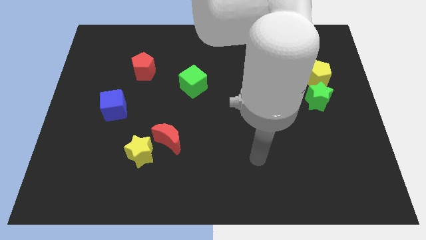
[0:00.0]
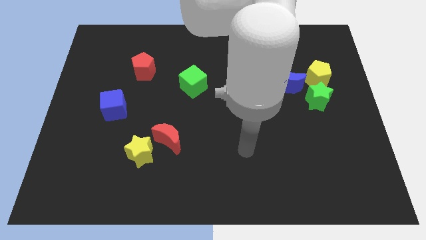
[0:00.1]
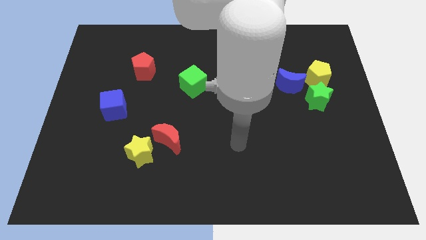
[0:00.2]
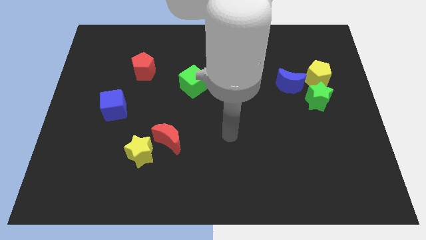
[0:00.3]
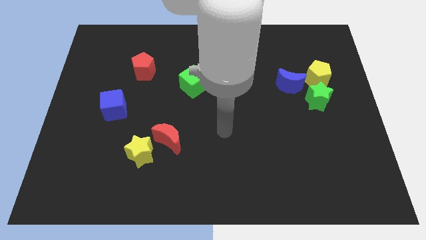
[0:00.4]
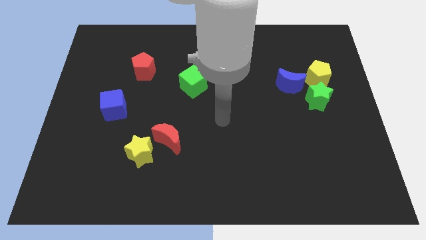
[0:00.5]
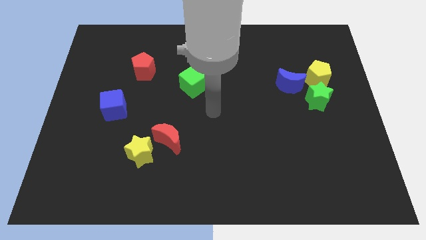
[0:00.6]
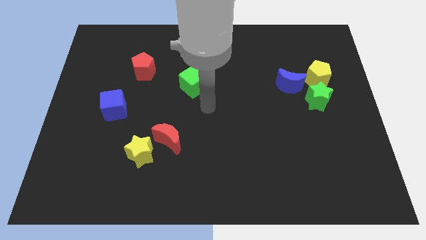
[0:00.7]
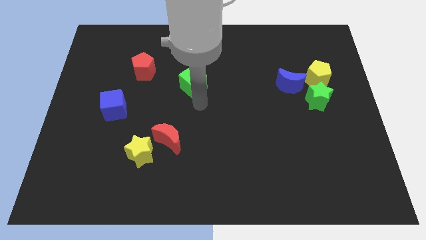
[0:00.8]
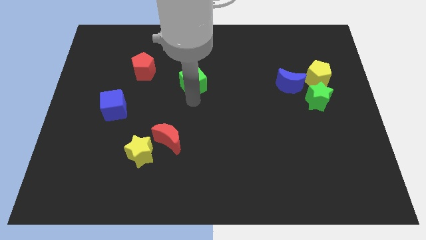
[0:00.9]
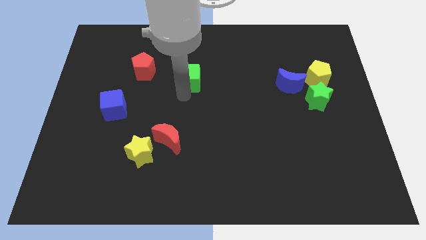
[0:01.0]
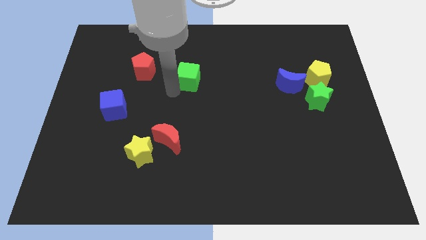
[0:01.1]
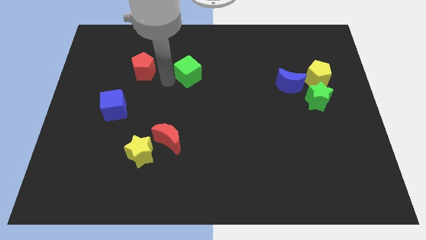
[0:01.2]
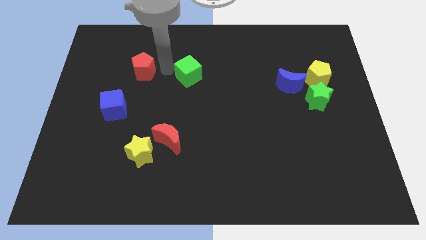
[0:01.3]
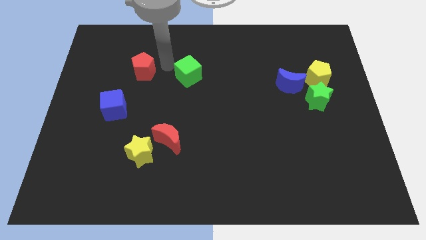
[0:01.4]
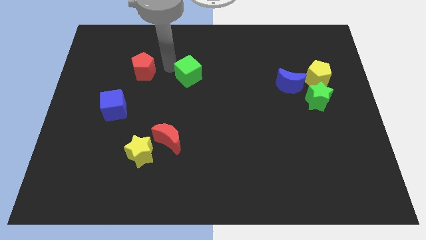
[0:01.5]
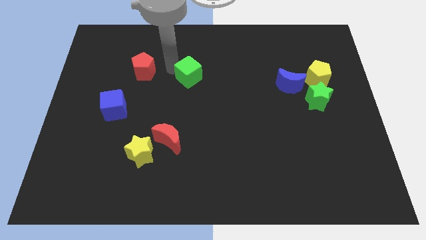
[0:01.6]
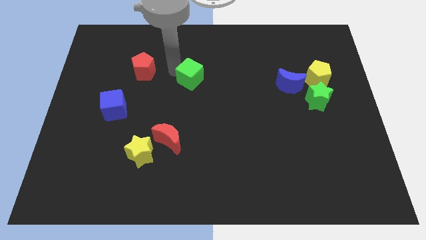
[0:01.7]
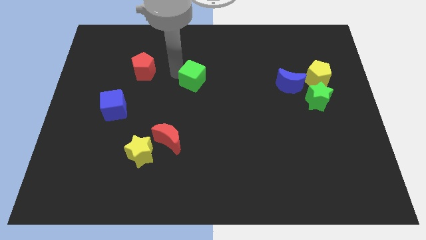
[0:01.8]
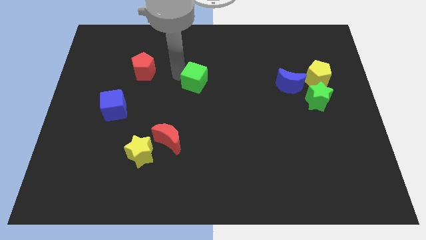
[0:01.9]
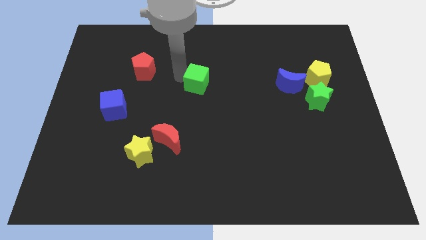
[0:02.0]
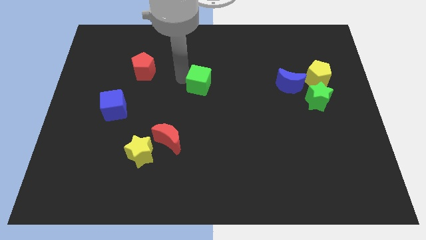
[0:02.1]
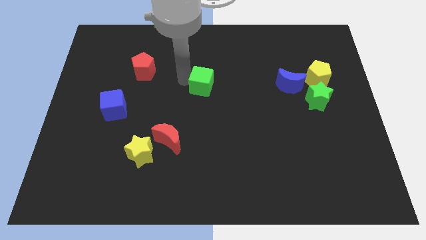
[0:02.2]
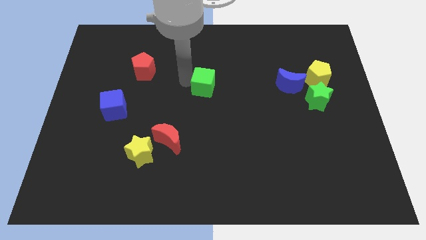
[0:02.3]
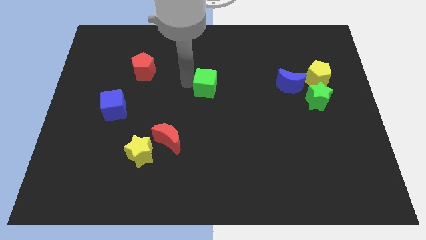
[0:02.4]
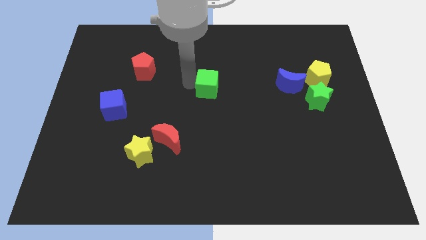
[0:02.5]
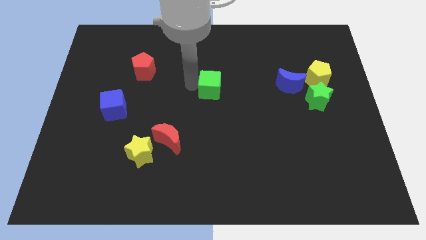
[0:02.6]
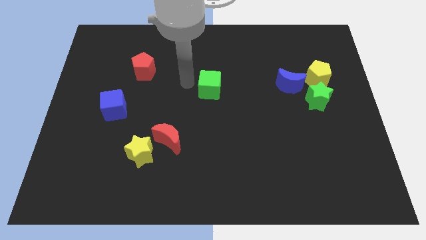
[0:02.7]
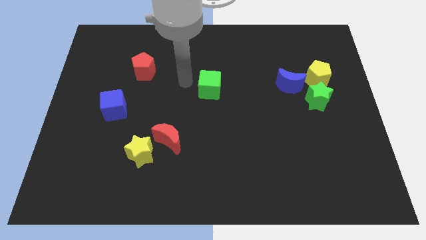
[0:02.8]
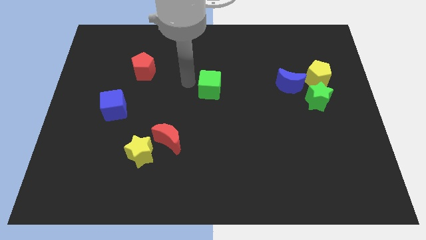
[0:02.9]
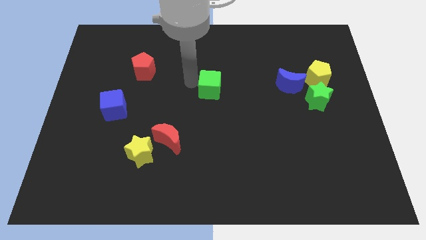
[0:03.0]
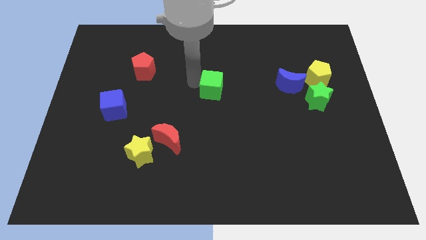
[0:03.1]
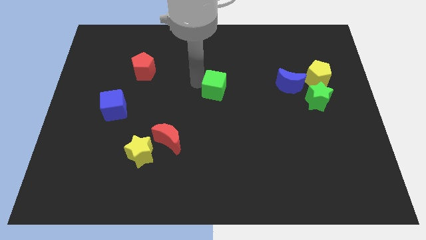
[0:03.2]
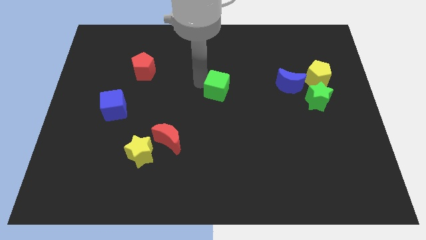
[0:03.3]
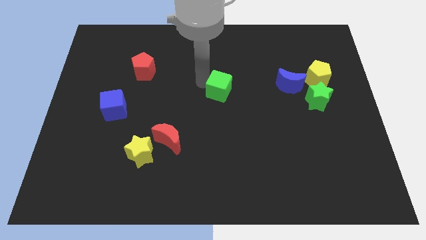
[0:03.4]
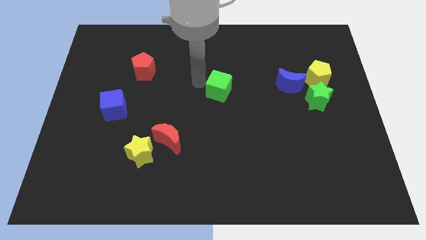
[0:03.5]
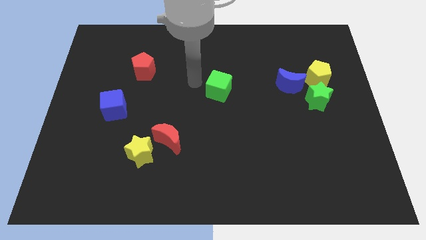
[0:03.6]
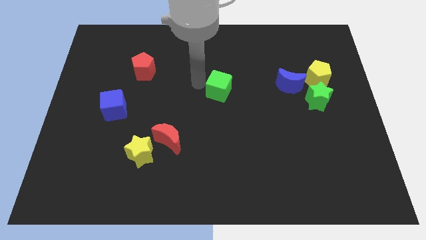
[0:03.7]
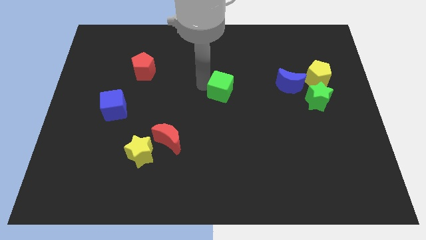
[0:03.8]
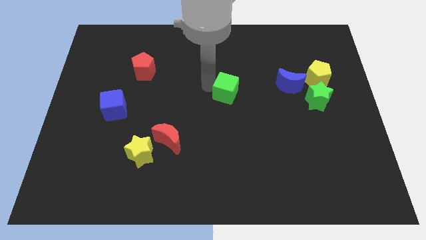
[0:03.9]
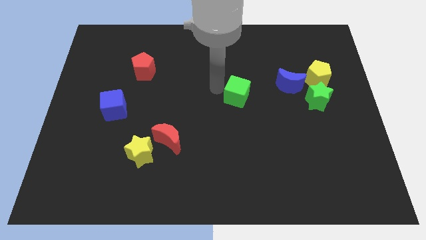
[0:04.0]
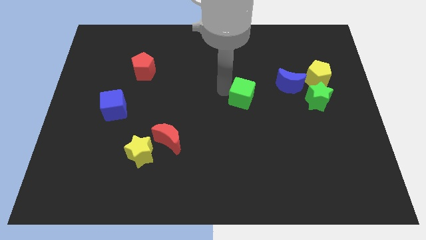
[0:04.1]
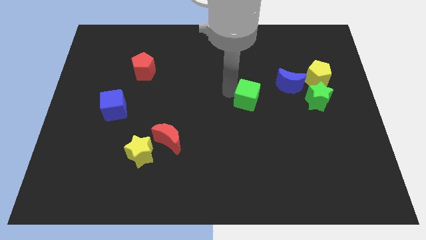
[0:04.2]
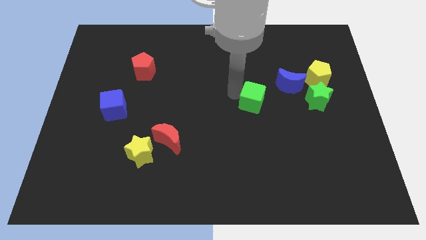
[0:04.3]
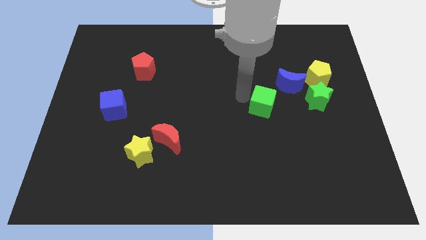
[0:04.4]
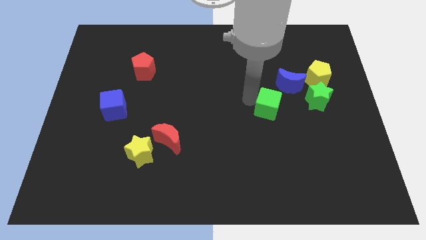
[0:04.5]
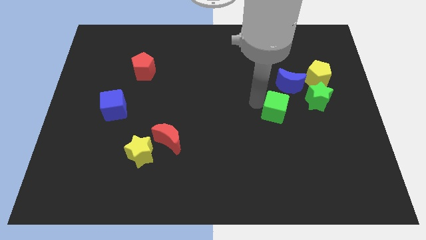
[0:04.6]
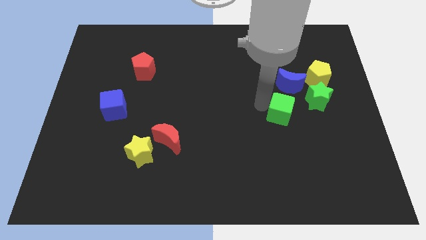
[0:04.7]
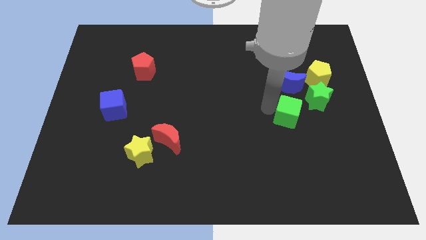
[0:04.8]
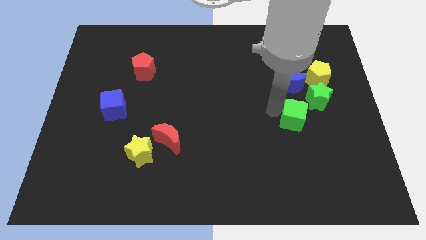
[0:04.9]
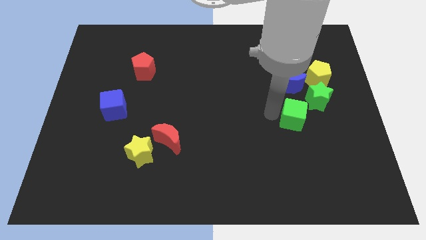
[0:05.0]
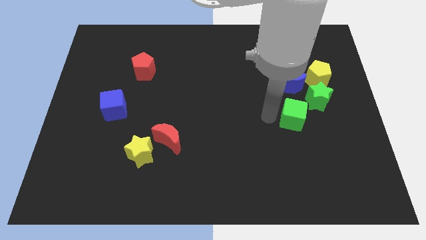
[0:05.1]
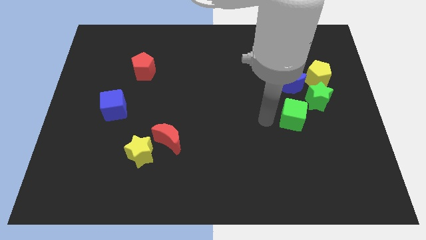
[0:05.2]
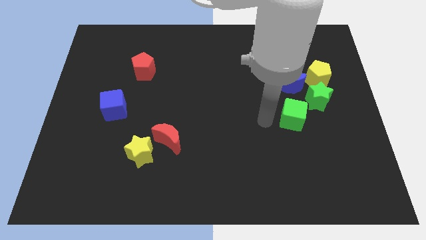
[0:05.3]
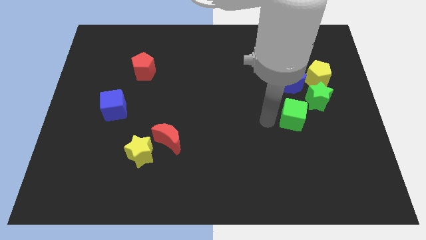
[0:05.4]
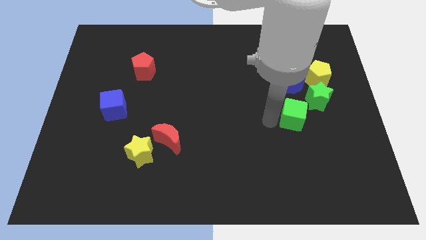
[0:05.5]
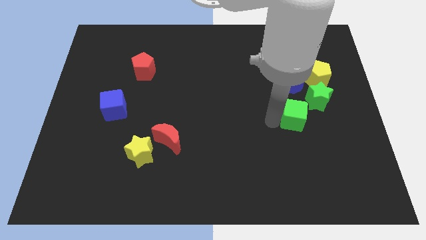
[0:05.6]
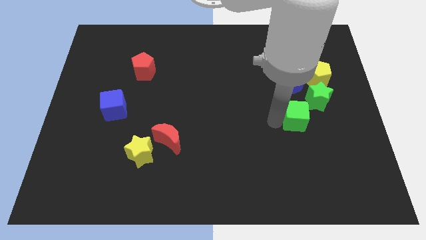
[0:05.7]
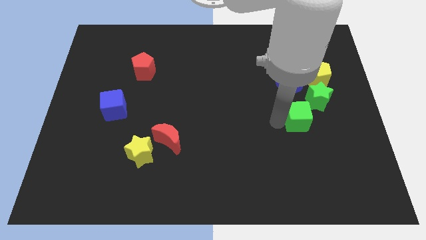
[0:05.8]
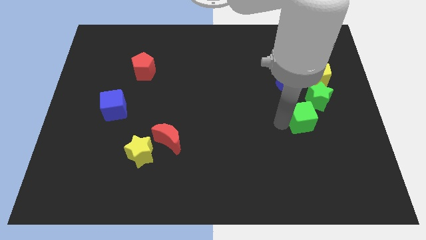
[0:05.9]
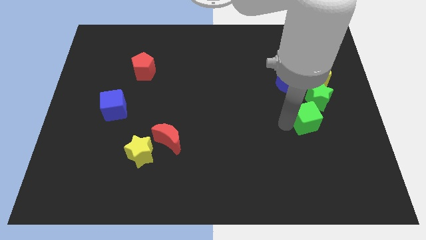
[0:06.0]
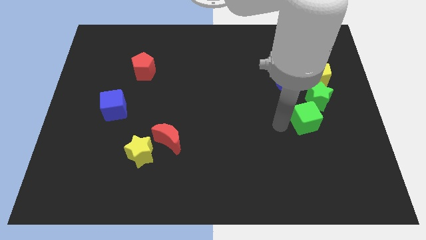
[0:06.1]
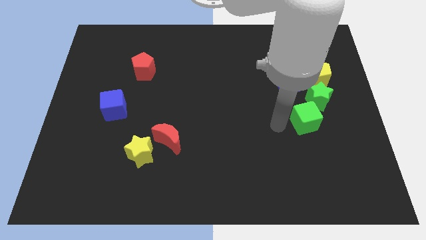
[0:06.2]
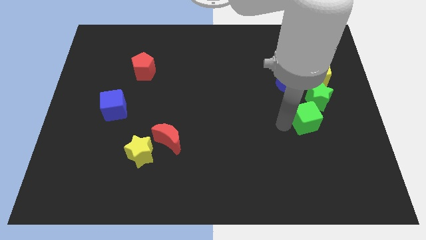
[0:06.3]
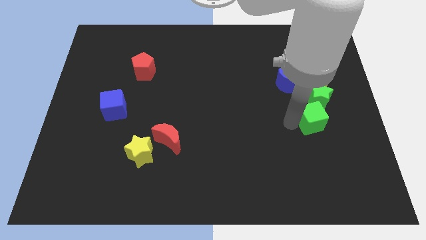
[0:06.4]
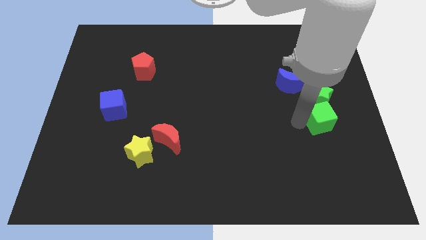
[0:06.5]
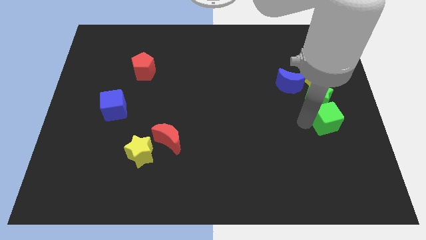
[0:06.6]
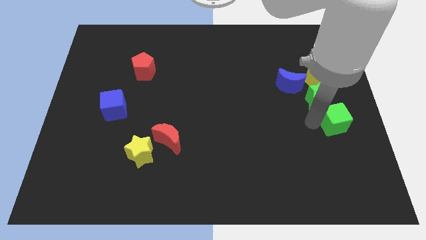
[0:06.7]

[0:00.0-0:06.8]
slide the green cube to the right side
